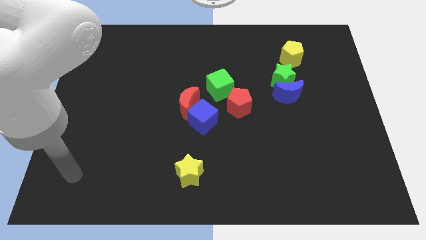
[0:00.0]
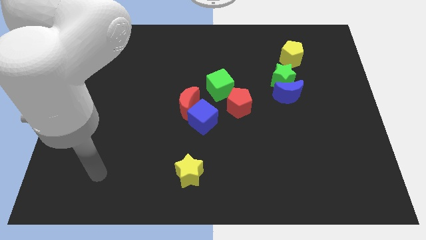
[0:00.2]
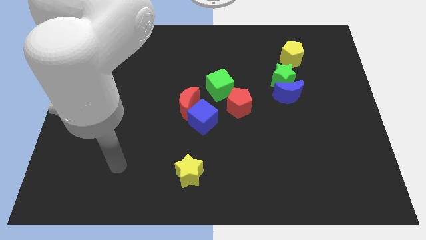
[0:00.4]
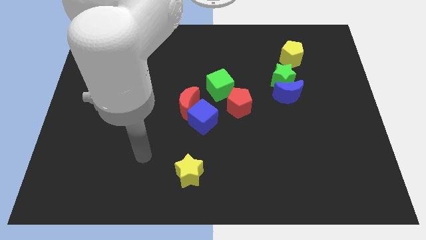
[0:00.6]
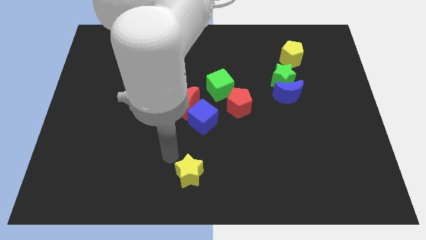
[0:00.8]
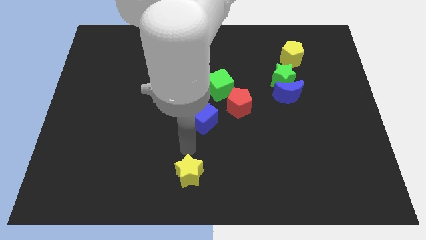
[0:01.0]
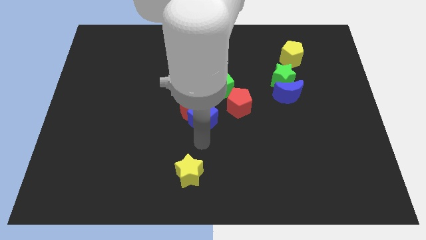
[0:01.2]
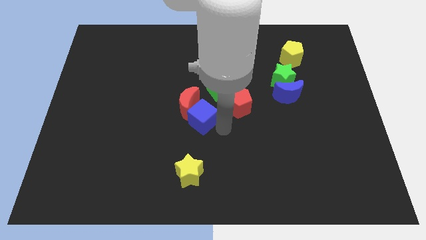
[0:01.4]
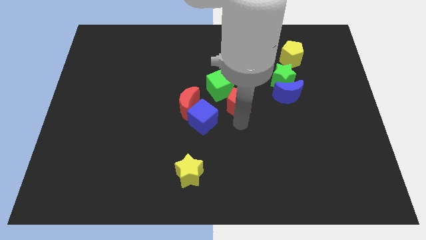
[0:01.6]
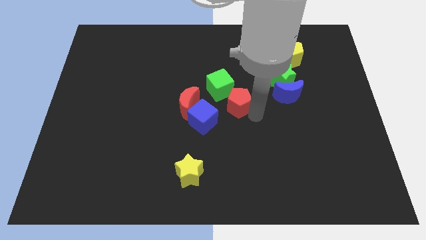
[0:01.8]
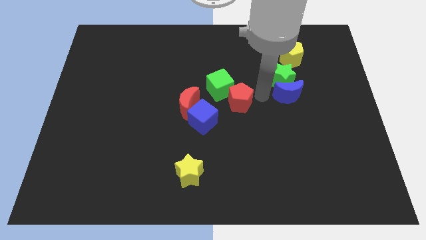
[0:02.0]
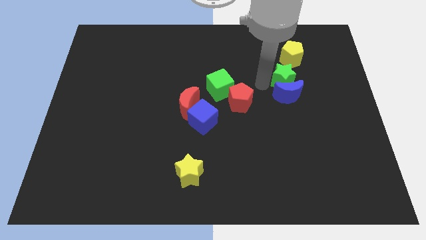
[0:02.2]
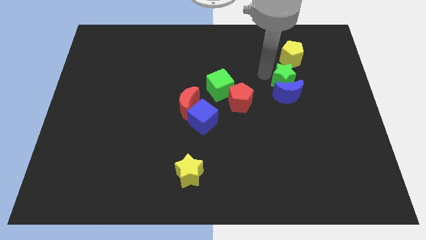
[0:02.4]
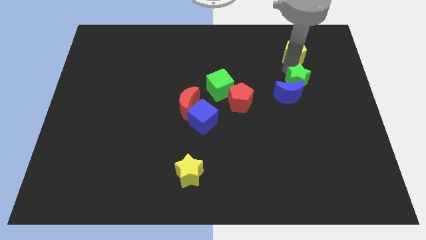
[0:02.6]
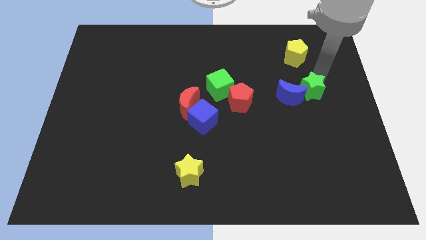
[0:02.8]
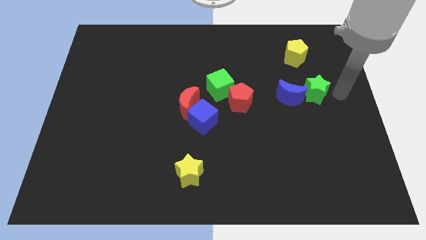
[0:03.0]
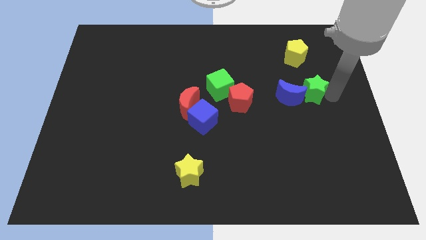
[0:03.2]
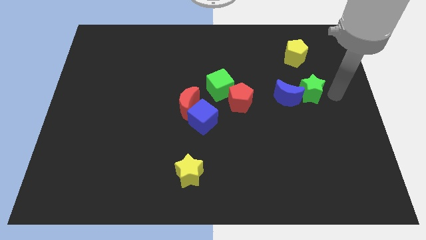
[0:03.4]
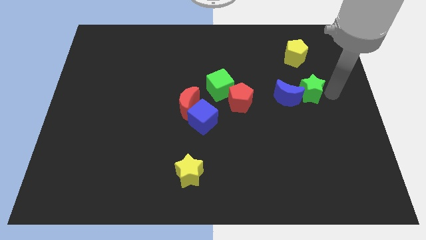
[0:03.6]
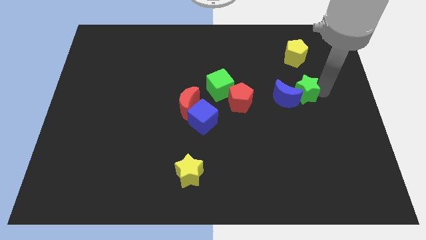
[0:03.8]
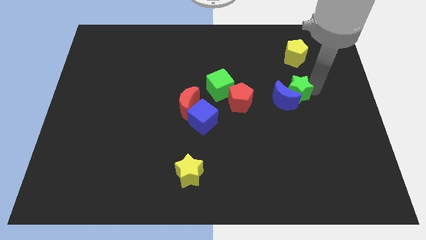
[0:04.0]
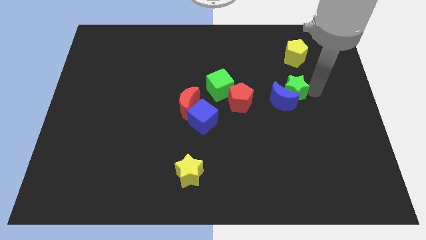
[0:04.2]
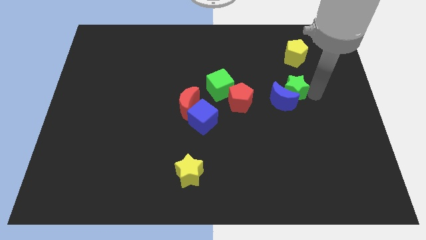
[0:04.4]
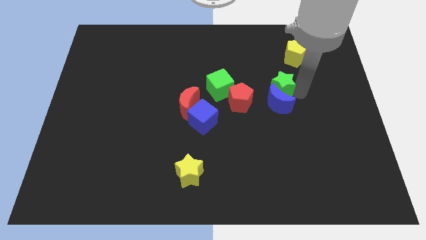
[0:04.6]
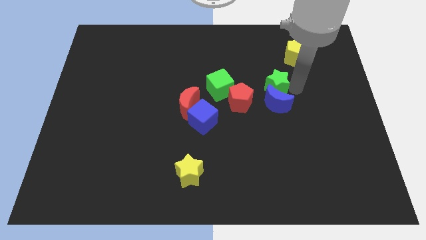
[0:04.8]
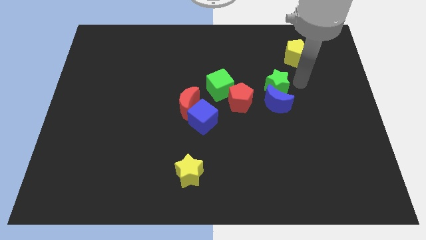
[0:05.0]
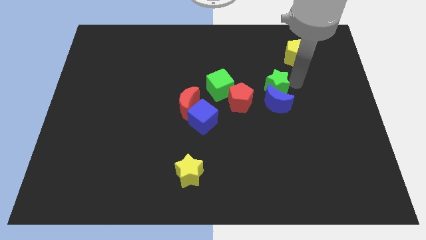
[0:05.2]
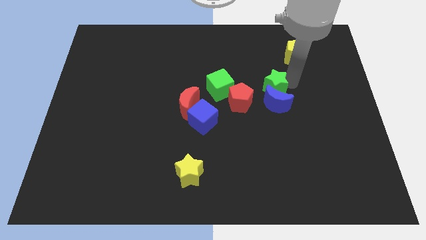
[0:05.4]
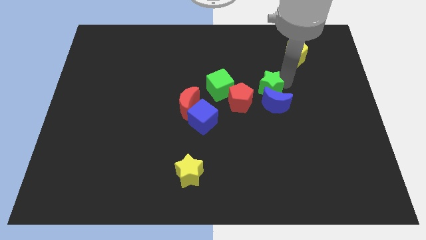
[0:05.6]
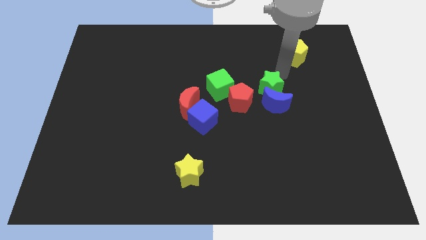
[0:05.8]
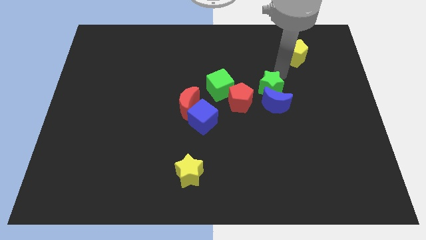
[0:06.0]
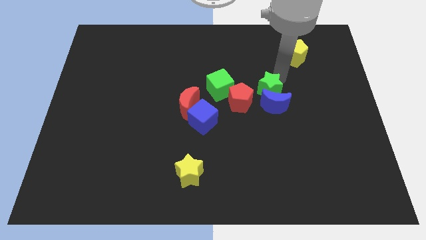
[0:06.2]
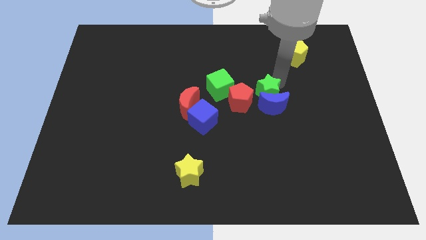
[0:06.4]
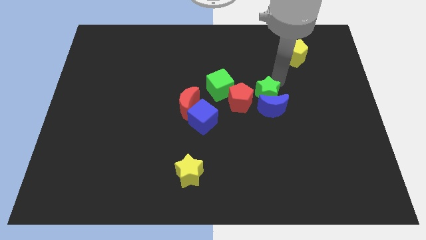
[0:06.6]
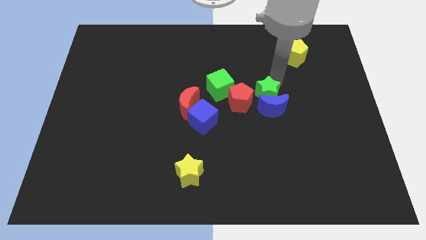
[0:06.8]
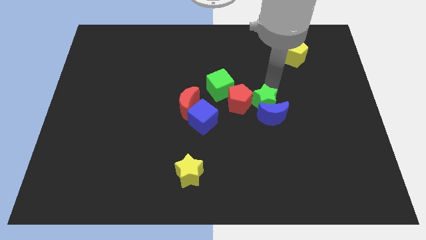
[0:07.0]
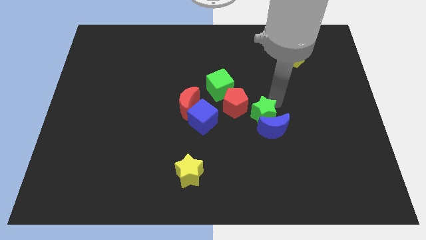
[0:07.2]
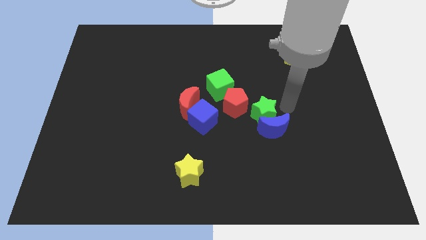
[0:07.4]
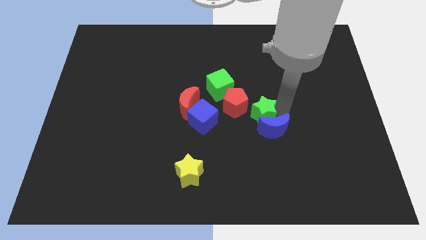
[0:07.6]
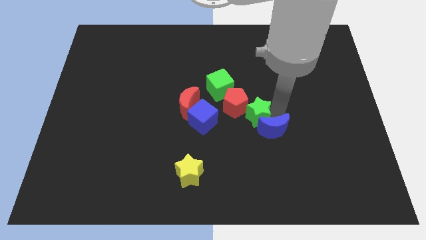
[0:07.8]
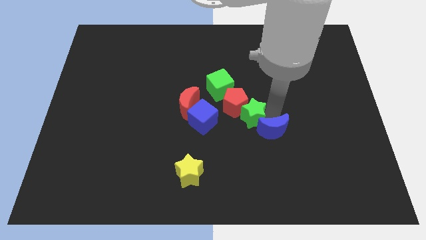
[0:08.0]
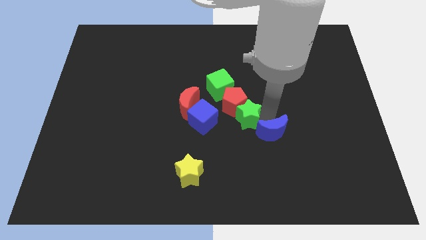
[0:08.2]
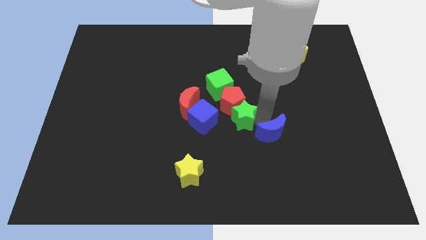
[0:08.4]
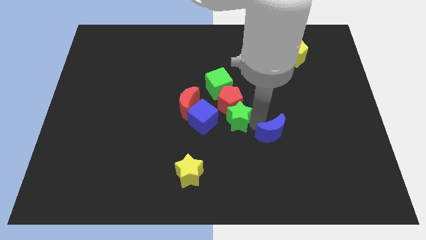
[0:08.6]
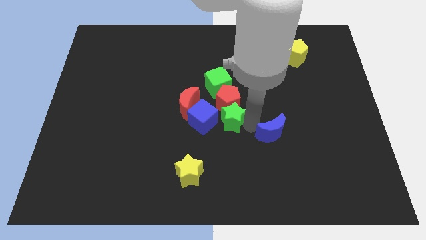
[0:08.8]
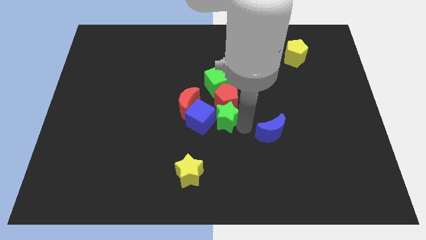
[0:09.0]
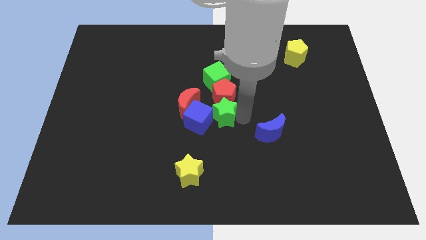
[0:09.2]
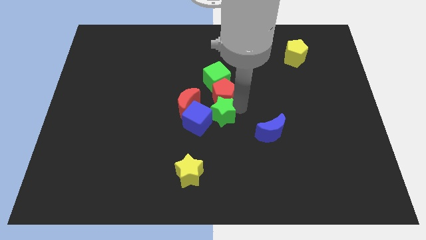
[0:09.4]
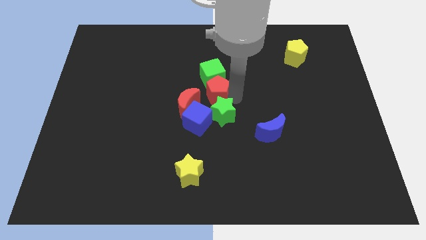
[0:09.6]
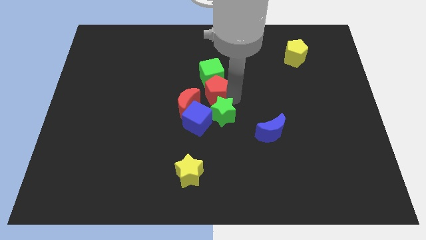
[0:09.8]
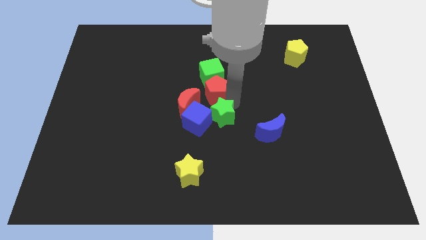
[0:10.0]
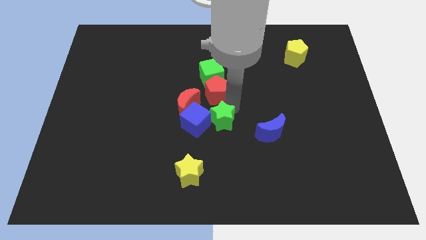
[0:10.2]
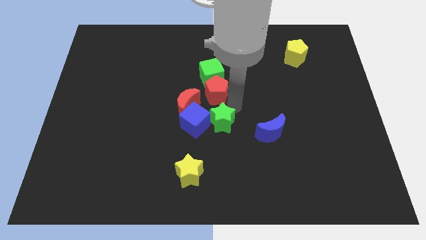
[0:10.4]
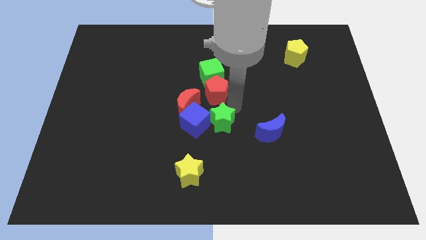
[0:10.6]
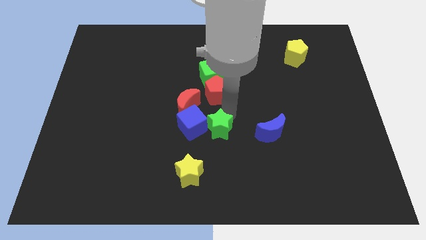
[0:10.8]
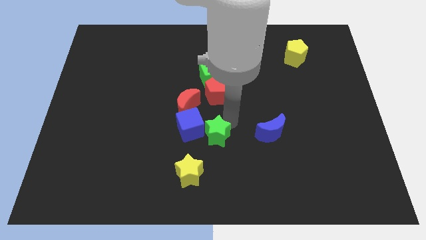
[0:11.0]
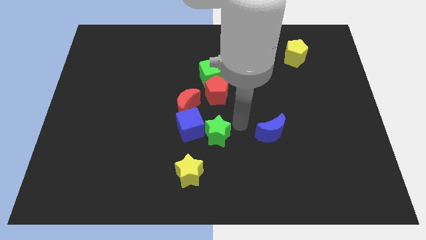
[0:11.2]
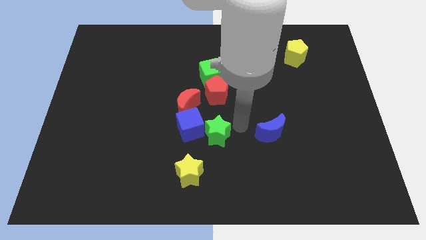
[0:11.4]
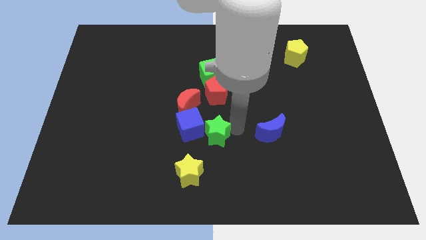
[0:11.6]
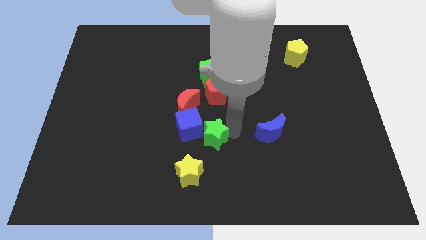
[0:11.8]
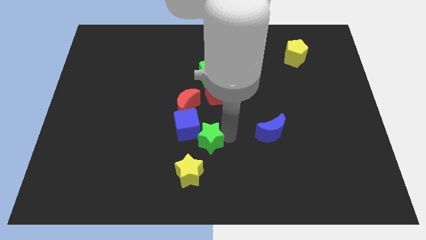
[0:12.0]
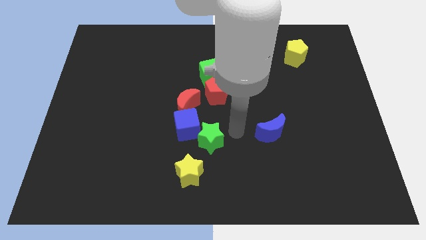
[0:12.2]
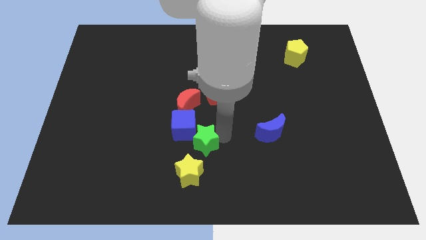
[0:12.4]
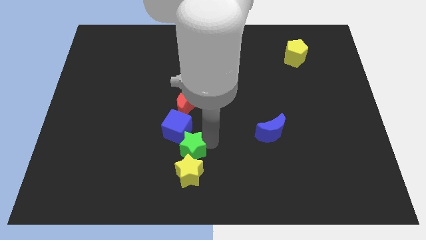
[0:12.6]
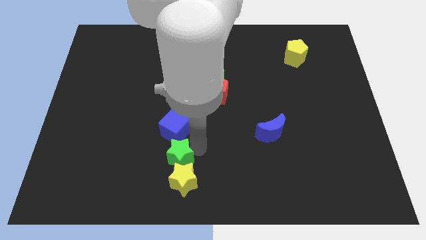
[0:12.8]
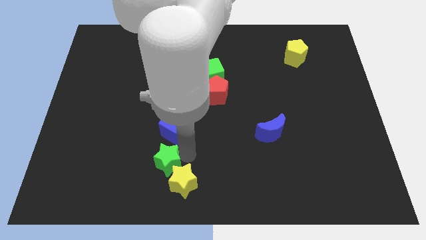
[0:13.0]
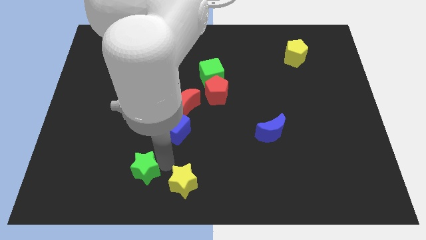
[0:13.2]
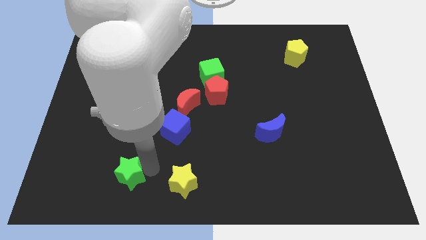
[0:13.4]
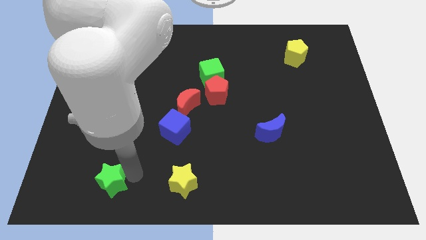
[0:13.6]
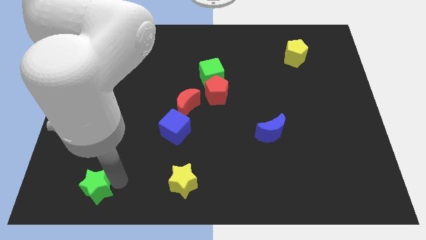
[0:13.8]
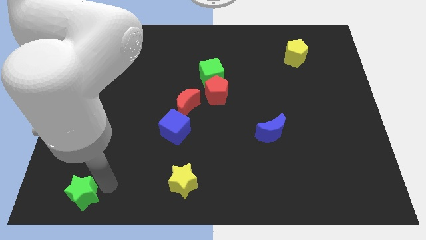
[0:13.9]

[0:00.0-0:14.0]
push the green star to the bottom left
